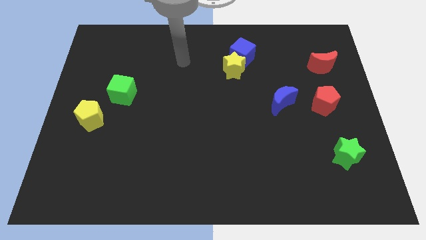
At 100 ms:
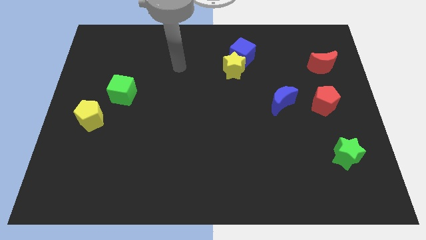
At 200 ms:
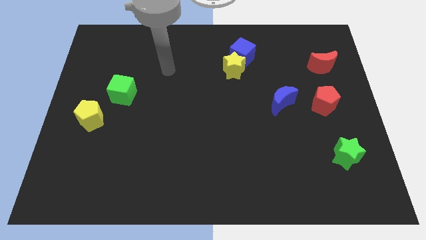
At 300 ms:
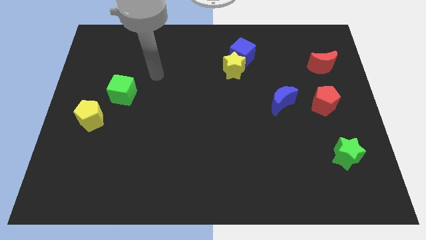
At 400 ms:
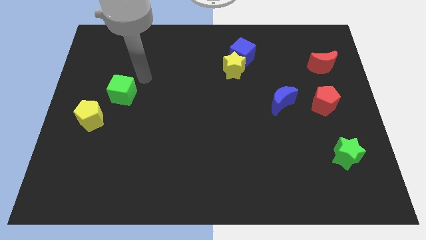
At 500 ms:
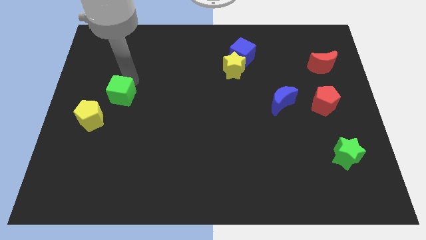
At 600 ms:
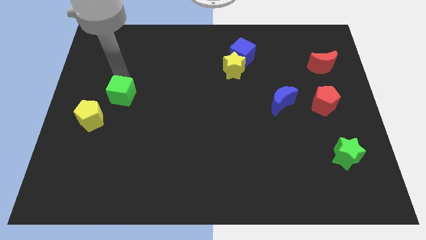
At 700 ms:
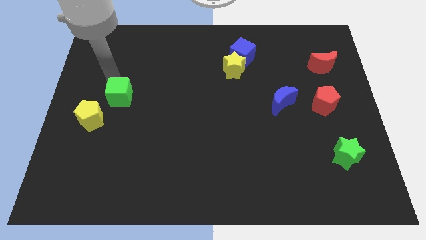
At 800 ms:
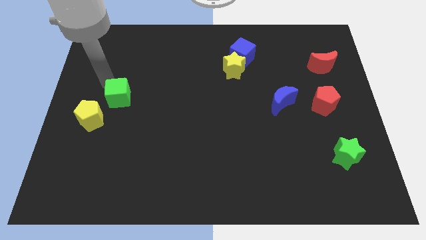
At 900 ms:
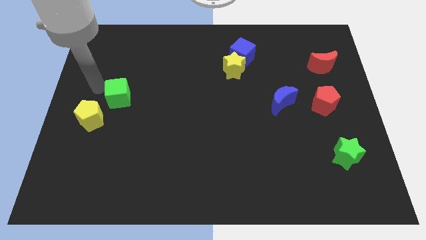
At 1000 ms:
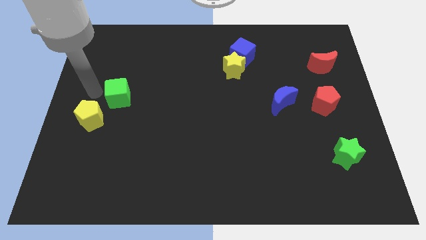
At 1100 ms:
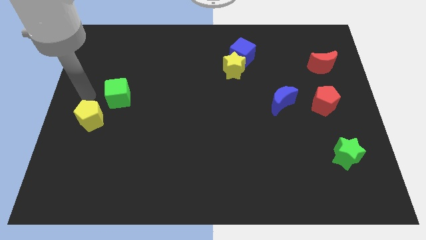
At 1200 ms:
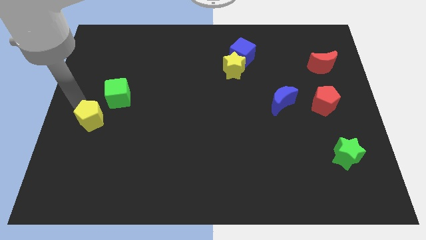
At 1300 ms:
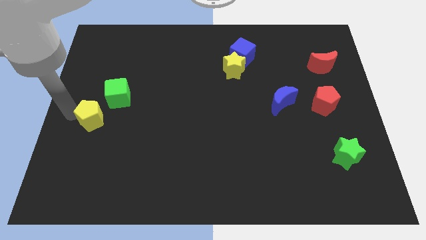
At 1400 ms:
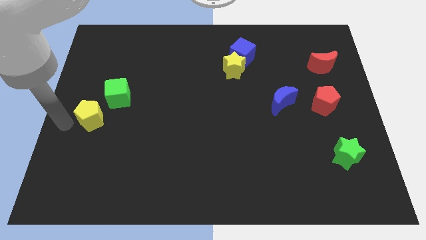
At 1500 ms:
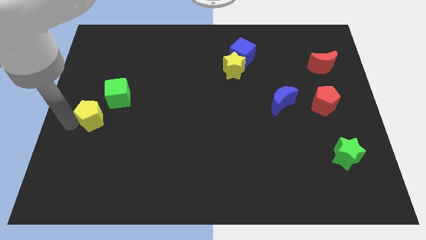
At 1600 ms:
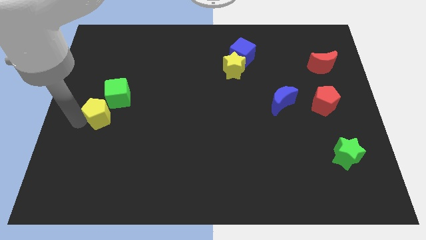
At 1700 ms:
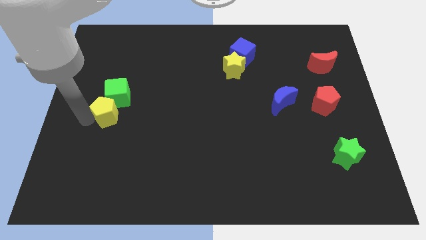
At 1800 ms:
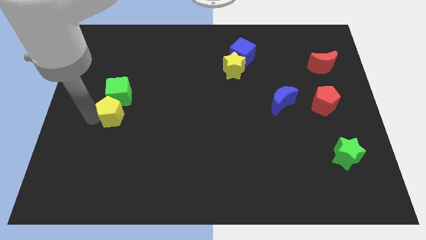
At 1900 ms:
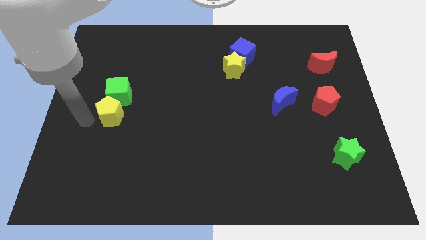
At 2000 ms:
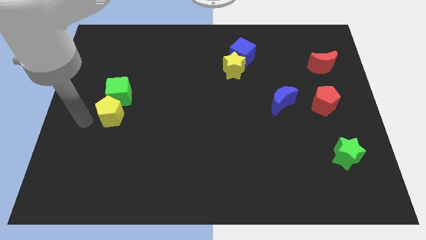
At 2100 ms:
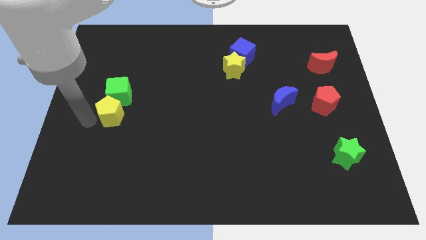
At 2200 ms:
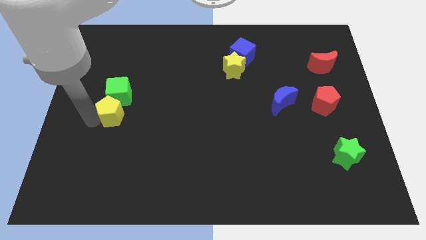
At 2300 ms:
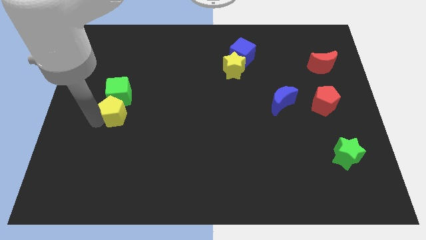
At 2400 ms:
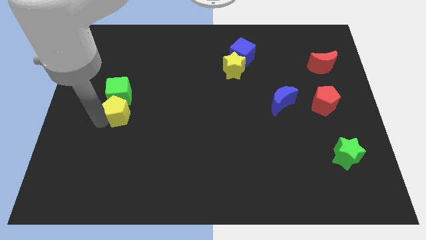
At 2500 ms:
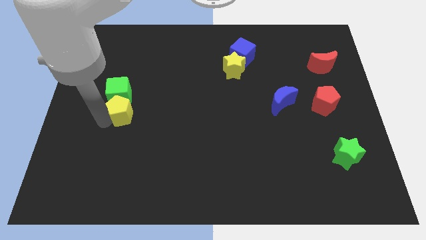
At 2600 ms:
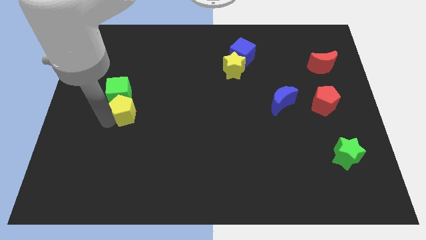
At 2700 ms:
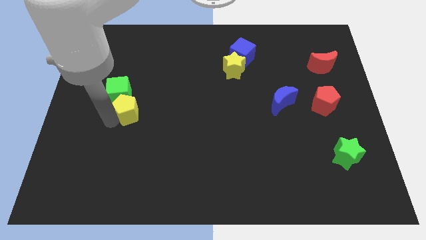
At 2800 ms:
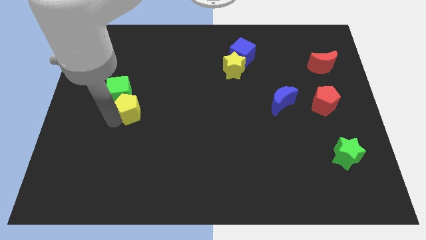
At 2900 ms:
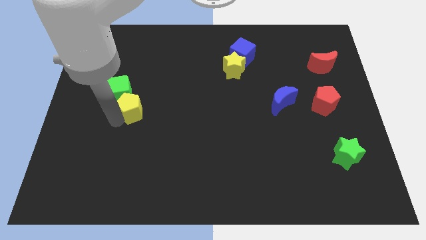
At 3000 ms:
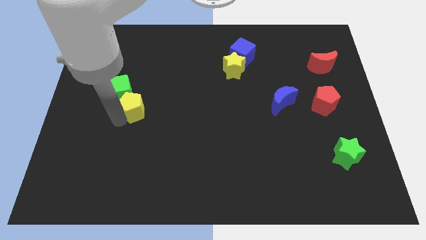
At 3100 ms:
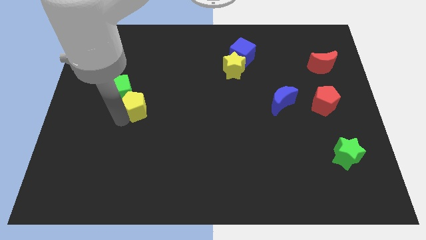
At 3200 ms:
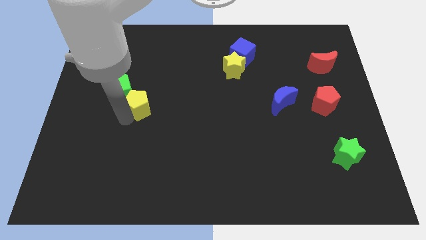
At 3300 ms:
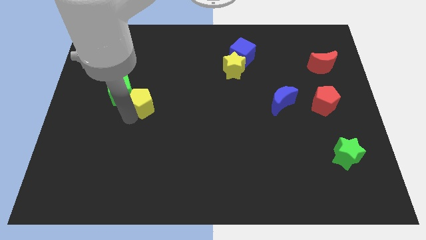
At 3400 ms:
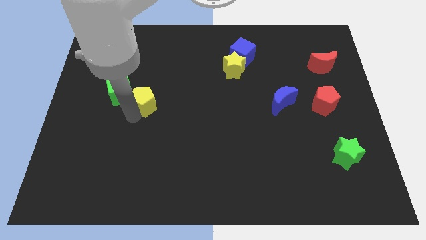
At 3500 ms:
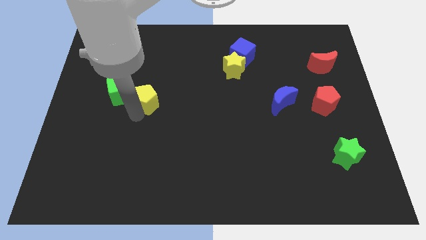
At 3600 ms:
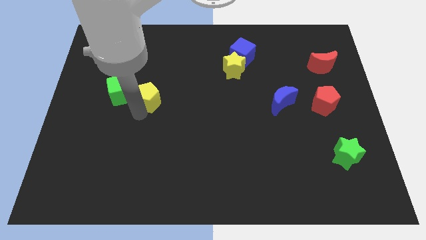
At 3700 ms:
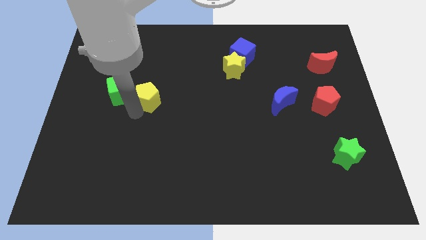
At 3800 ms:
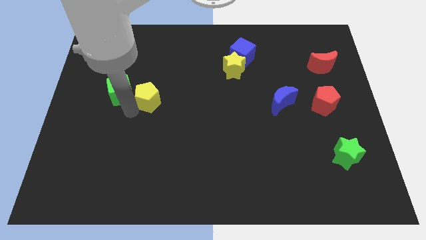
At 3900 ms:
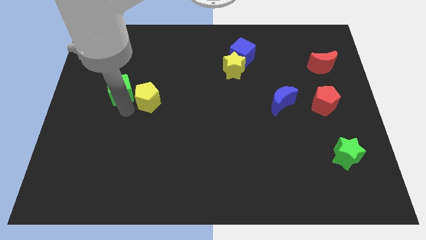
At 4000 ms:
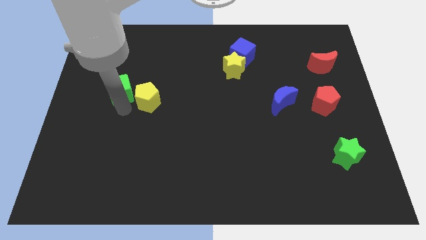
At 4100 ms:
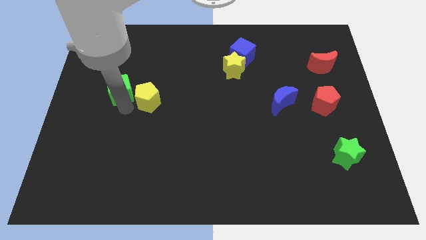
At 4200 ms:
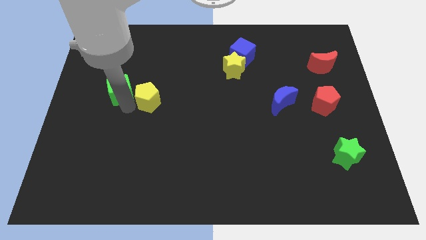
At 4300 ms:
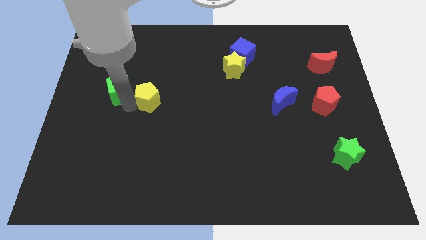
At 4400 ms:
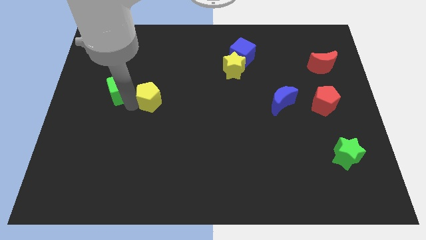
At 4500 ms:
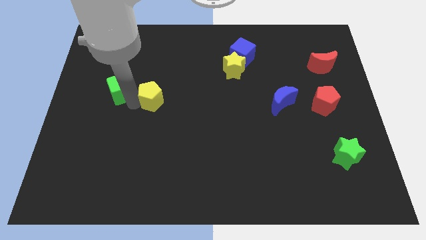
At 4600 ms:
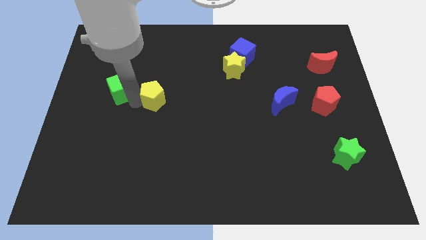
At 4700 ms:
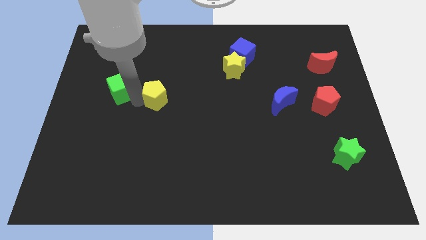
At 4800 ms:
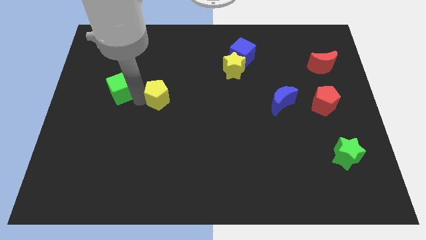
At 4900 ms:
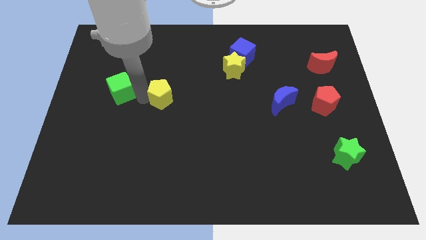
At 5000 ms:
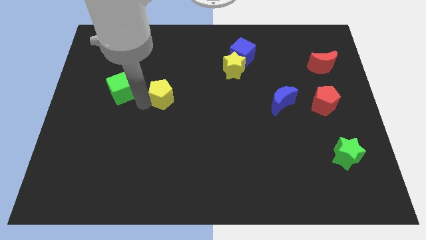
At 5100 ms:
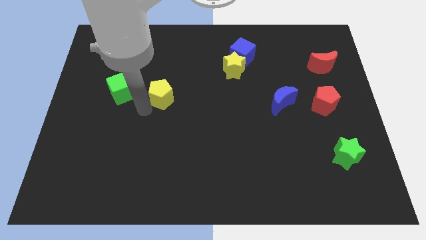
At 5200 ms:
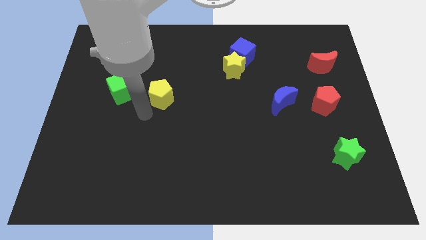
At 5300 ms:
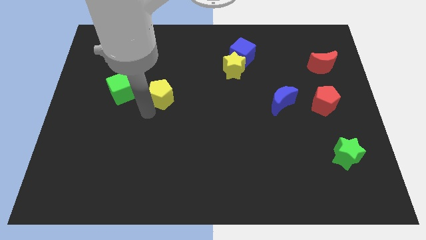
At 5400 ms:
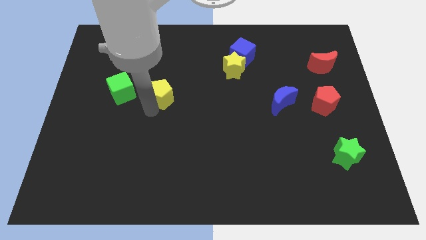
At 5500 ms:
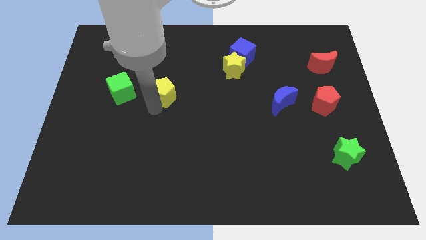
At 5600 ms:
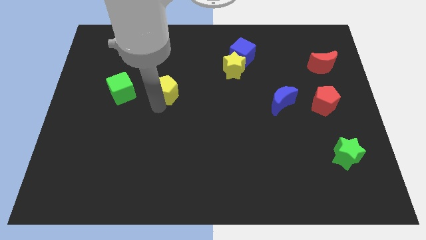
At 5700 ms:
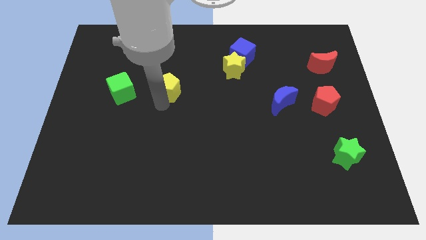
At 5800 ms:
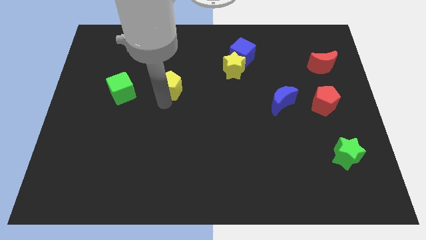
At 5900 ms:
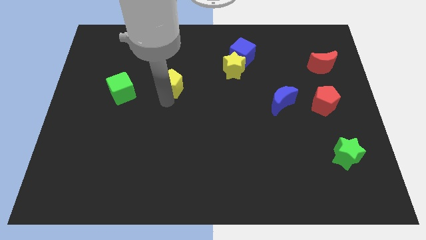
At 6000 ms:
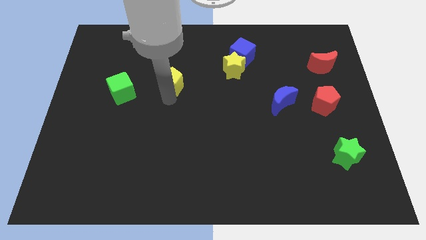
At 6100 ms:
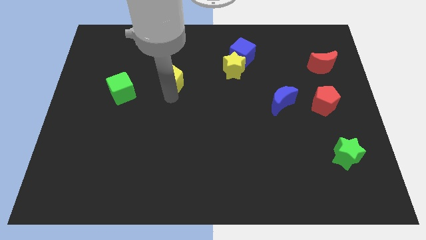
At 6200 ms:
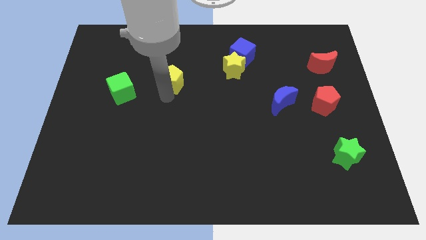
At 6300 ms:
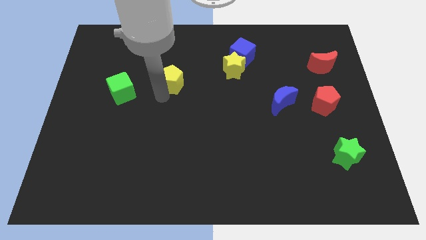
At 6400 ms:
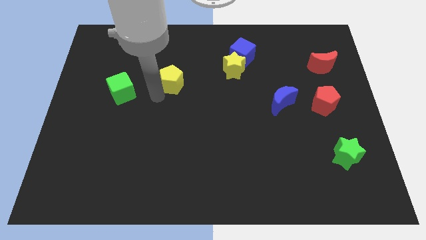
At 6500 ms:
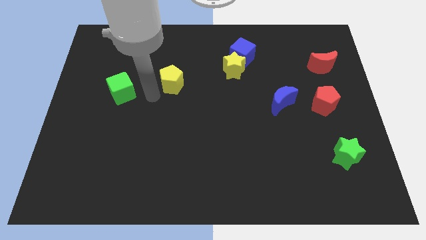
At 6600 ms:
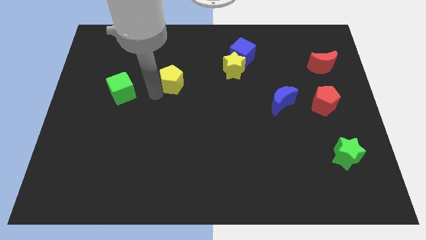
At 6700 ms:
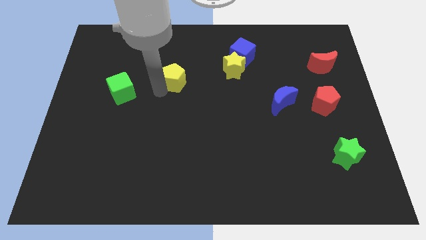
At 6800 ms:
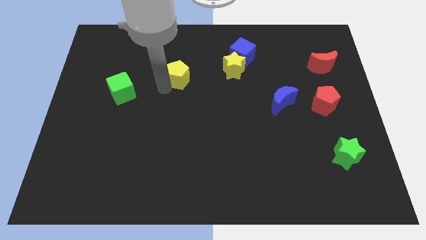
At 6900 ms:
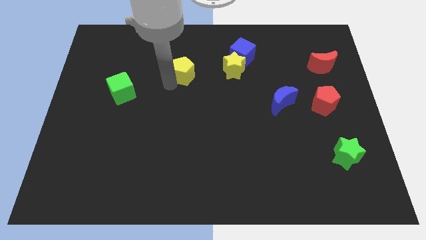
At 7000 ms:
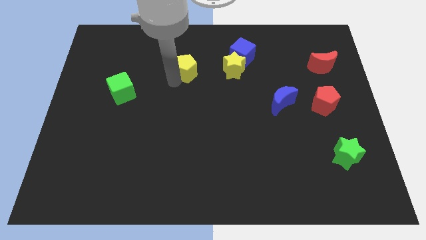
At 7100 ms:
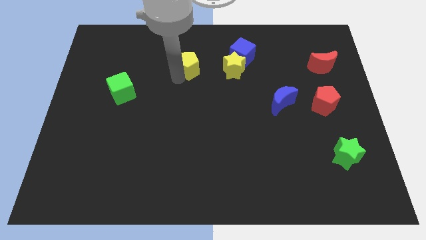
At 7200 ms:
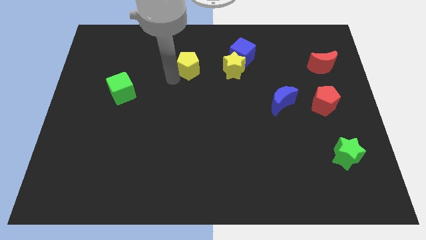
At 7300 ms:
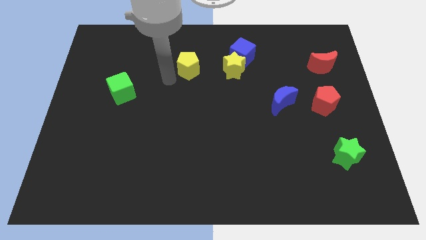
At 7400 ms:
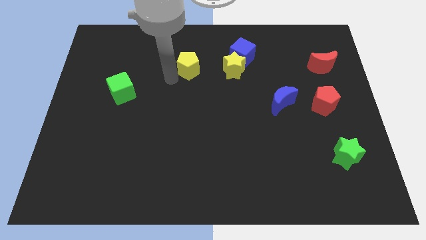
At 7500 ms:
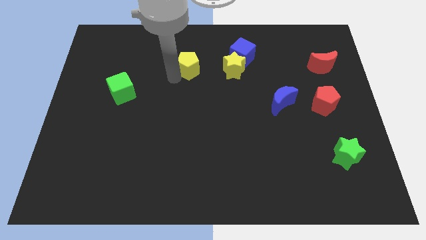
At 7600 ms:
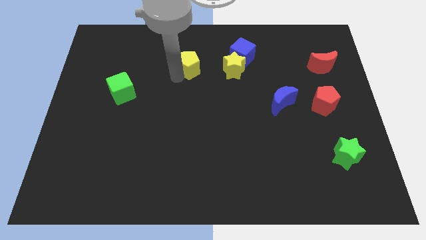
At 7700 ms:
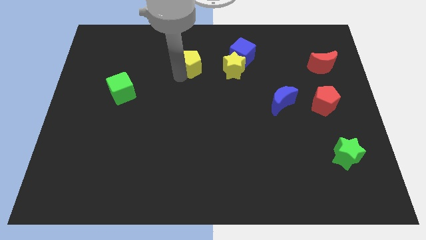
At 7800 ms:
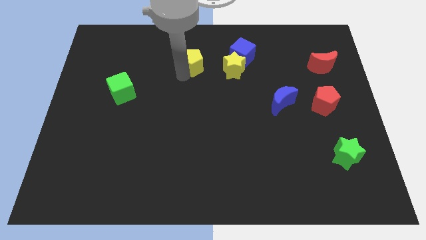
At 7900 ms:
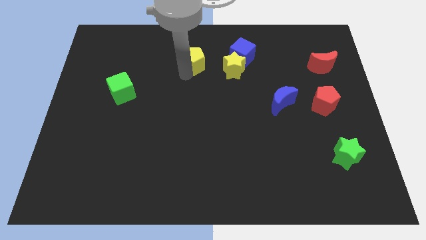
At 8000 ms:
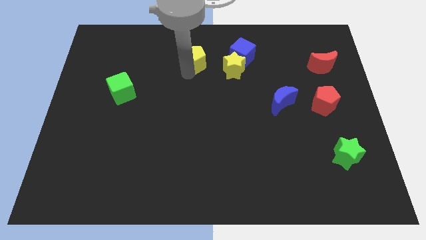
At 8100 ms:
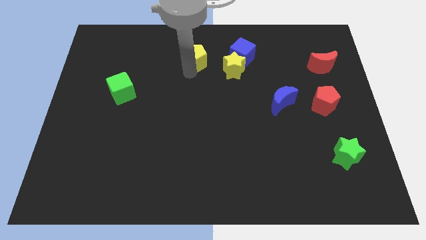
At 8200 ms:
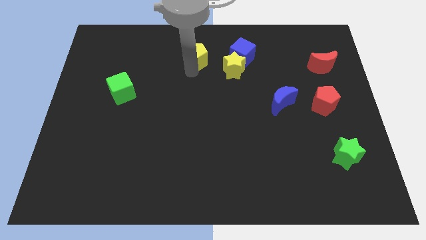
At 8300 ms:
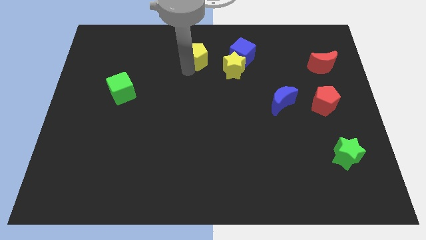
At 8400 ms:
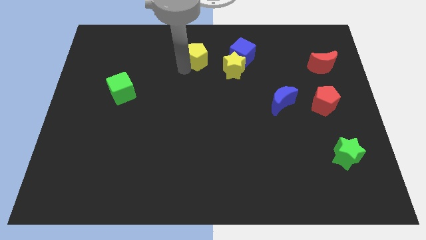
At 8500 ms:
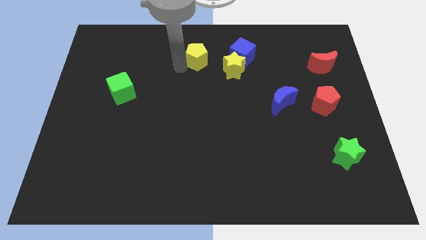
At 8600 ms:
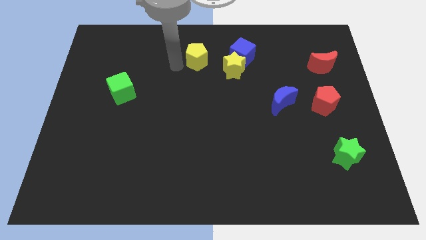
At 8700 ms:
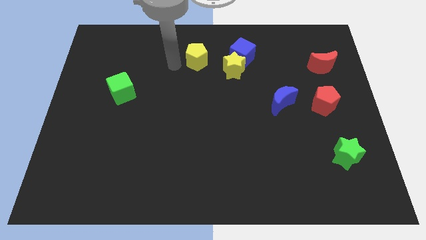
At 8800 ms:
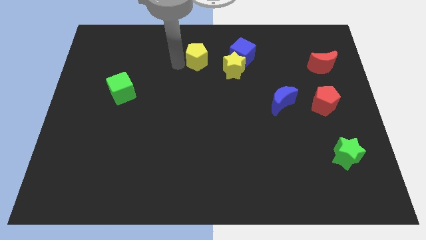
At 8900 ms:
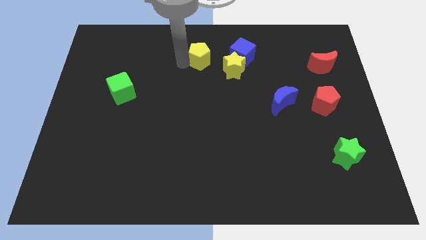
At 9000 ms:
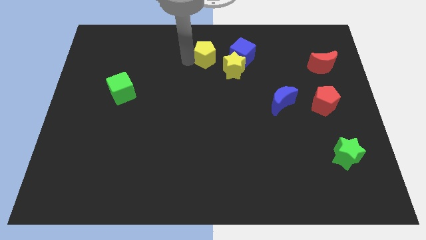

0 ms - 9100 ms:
push the yellow pentagon to the top side
